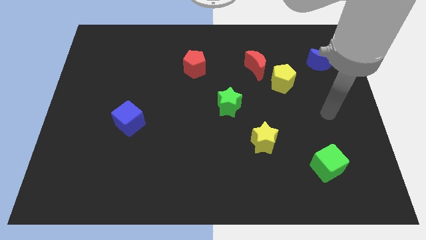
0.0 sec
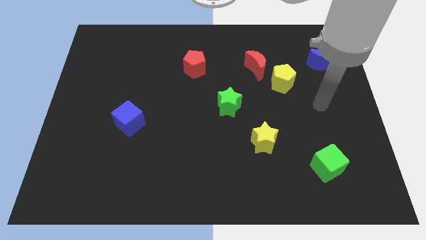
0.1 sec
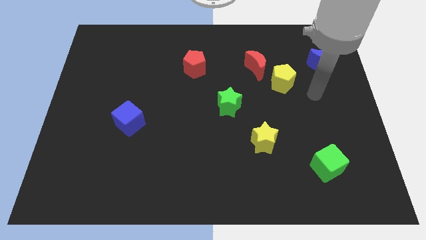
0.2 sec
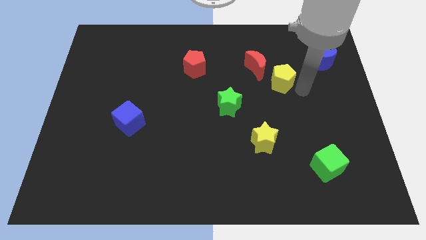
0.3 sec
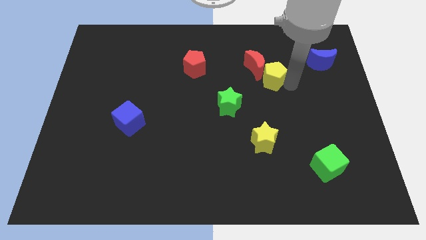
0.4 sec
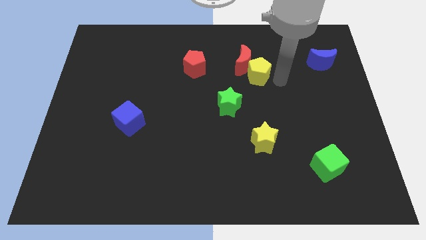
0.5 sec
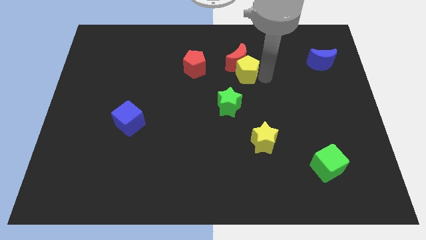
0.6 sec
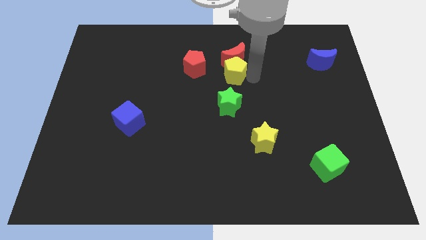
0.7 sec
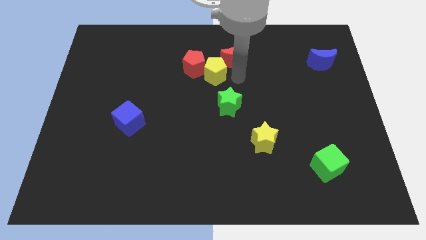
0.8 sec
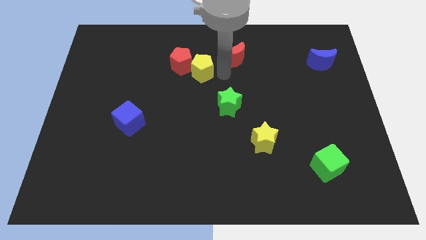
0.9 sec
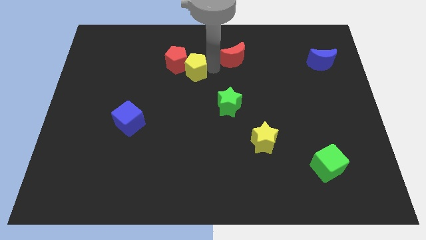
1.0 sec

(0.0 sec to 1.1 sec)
separate the red moon from the yellow pentagon

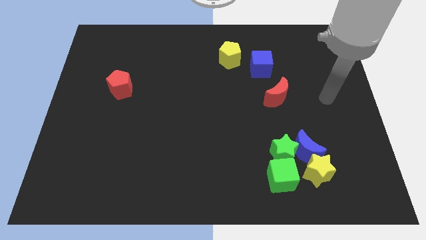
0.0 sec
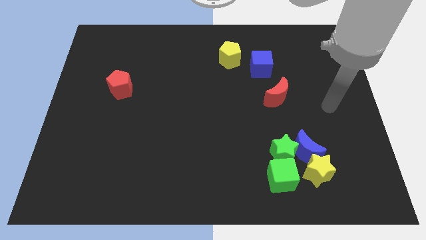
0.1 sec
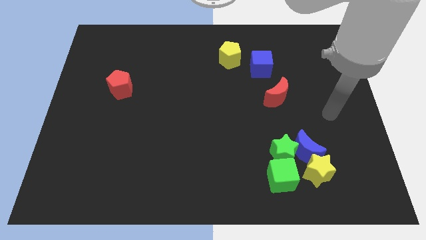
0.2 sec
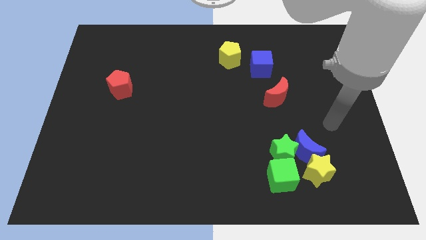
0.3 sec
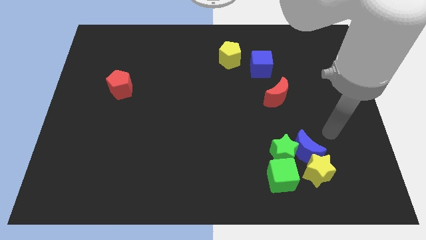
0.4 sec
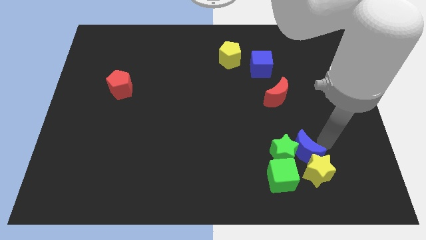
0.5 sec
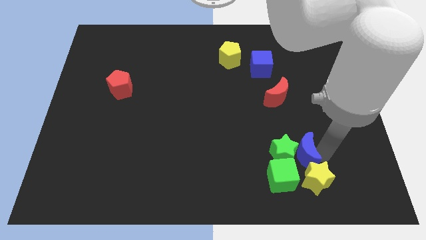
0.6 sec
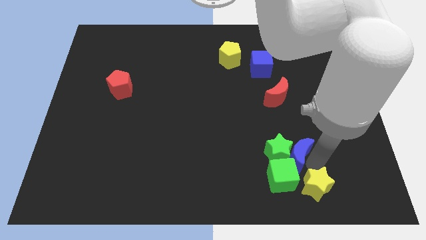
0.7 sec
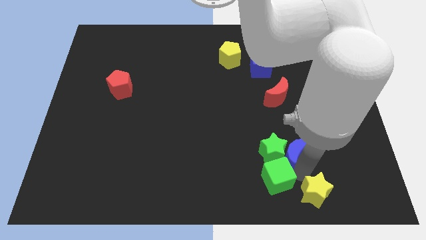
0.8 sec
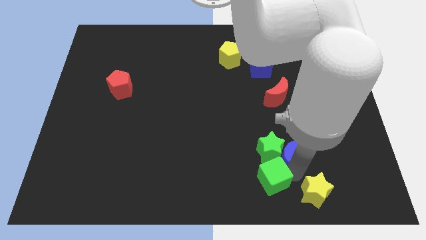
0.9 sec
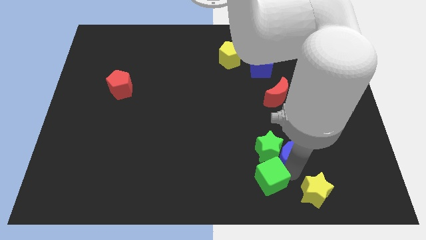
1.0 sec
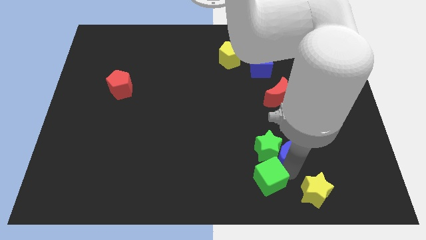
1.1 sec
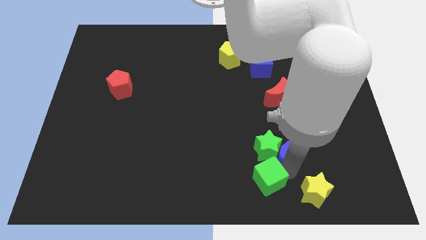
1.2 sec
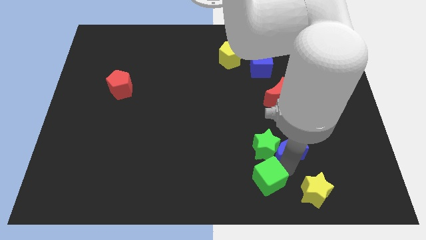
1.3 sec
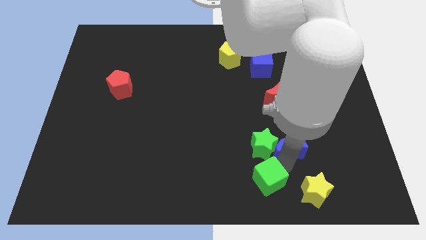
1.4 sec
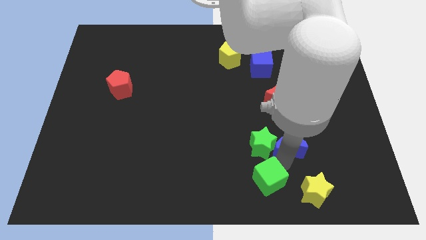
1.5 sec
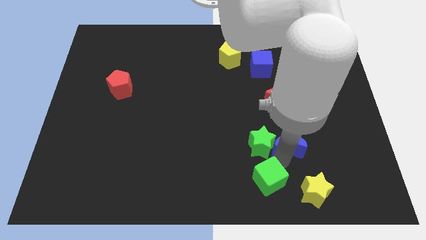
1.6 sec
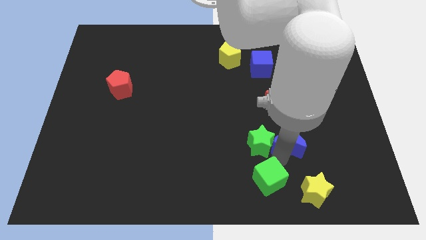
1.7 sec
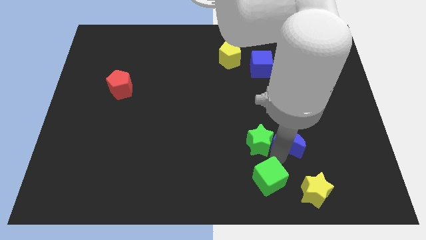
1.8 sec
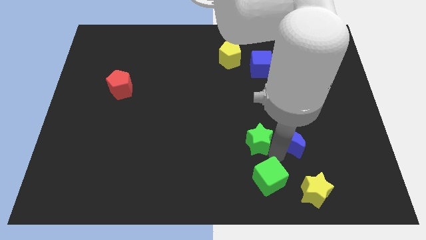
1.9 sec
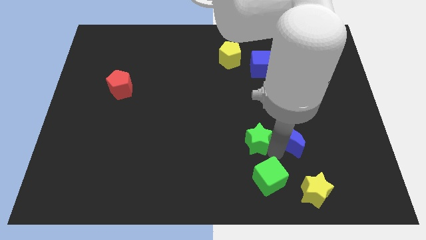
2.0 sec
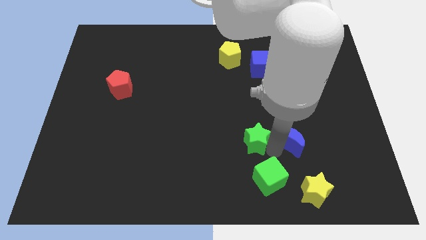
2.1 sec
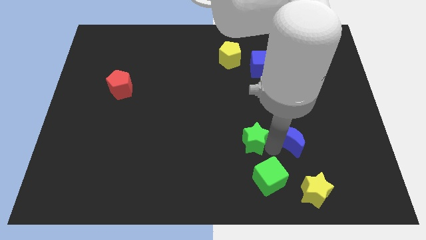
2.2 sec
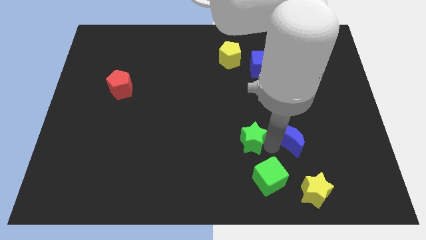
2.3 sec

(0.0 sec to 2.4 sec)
separate the green star from the clump

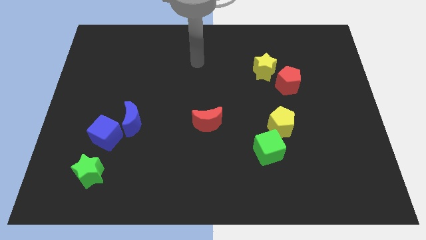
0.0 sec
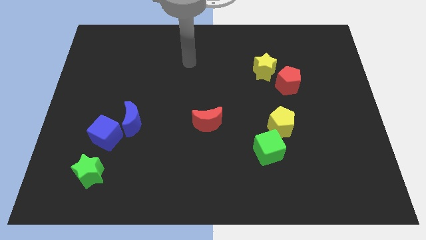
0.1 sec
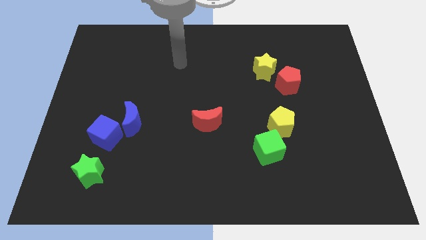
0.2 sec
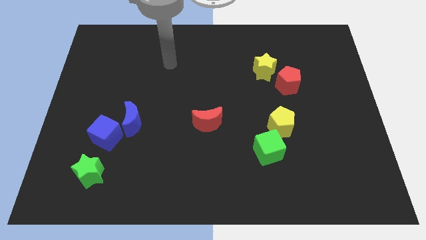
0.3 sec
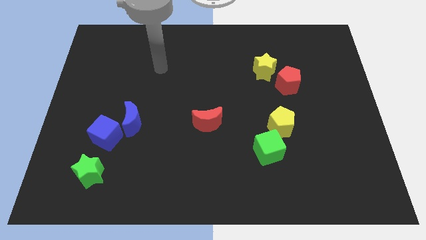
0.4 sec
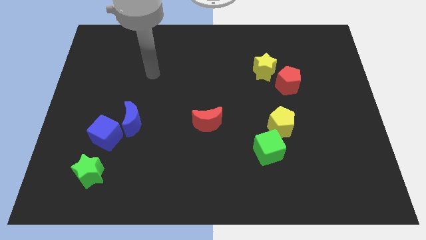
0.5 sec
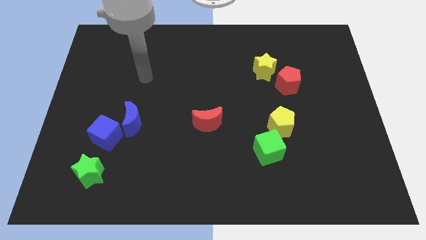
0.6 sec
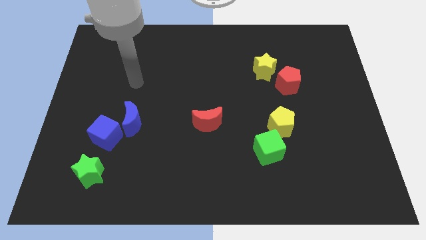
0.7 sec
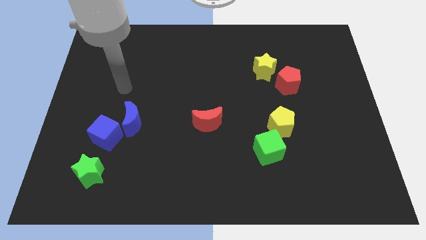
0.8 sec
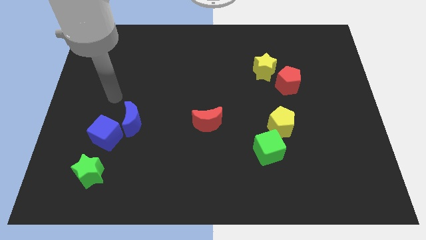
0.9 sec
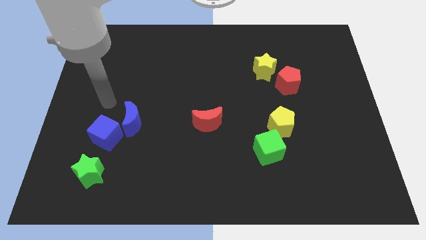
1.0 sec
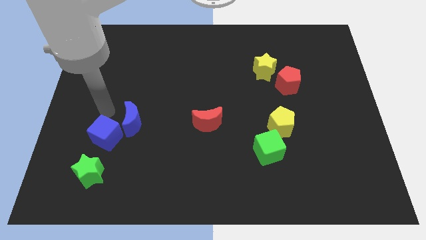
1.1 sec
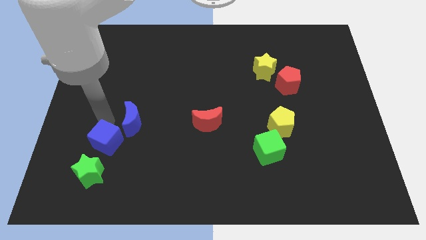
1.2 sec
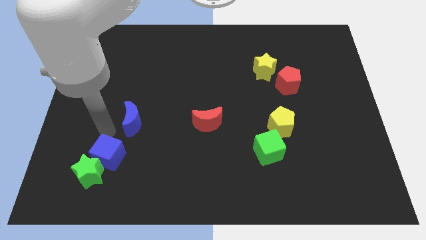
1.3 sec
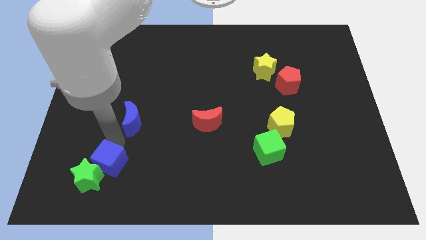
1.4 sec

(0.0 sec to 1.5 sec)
pull the blue moon apart from the blue cube

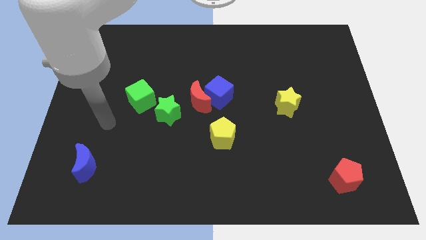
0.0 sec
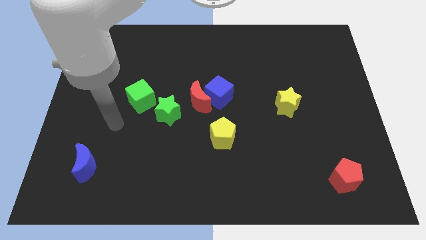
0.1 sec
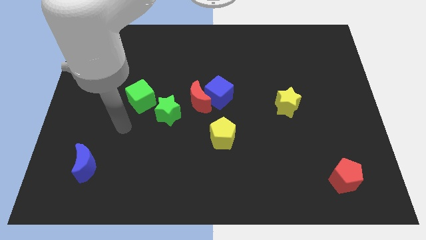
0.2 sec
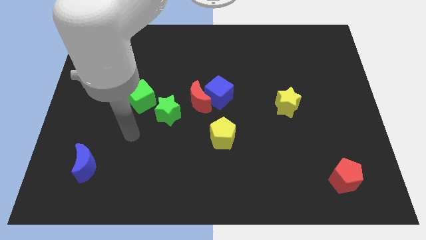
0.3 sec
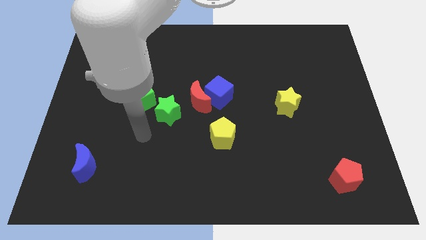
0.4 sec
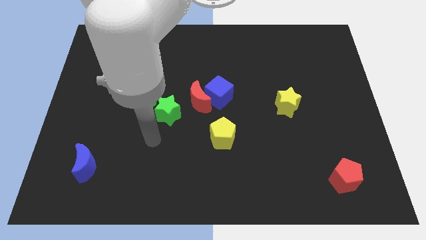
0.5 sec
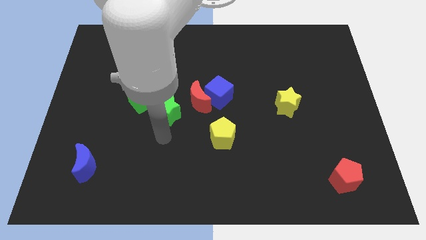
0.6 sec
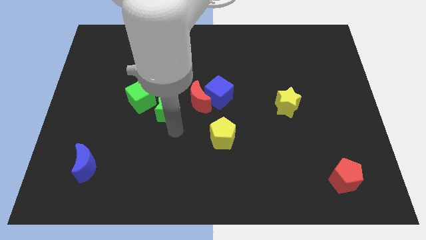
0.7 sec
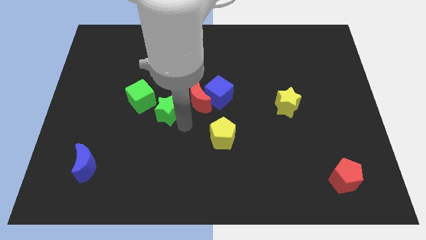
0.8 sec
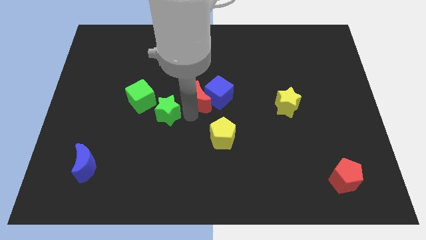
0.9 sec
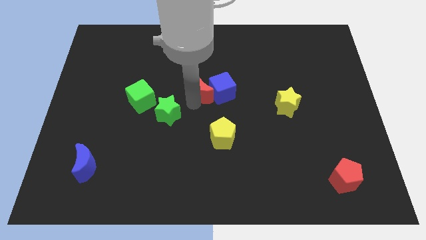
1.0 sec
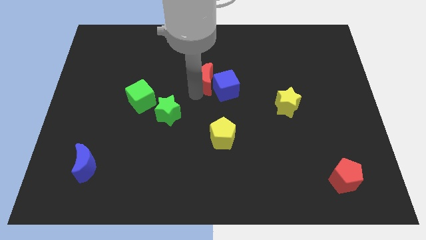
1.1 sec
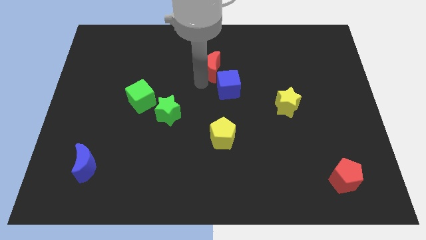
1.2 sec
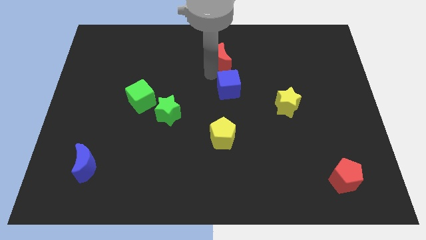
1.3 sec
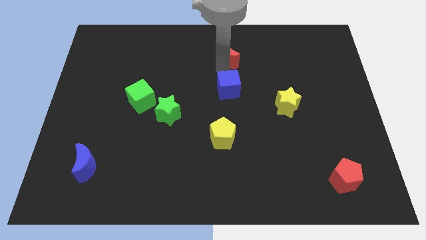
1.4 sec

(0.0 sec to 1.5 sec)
pull the blue cube apart from the red moon

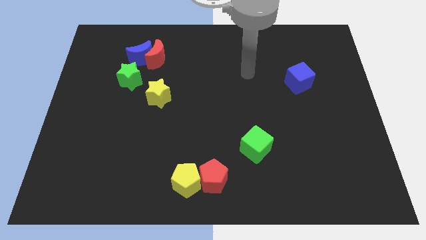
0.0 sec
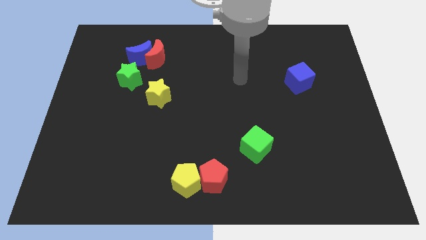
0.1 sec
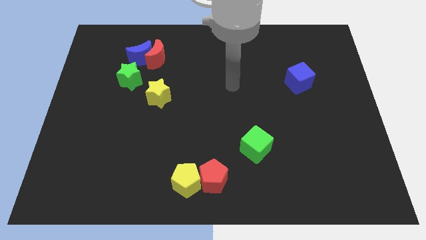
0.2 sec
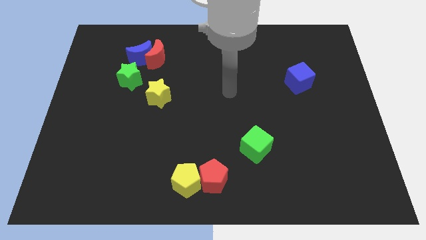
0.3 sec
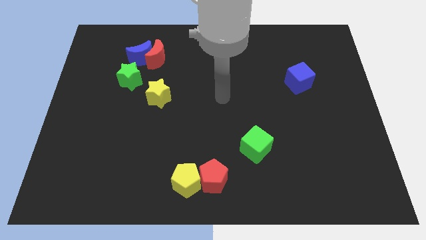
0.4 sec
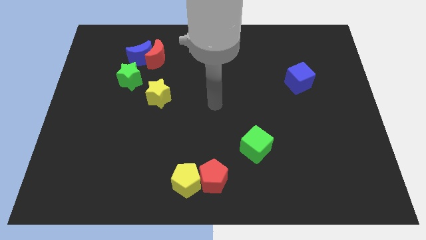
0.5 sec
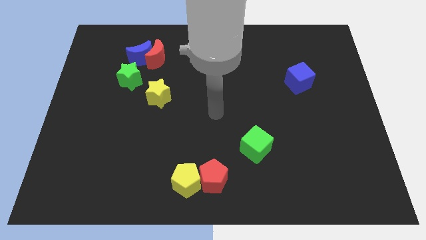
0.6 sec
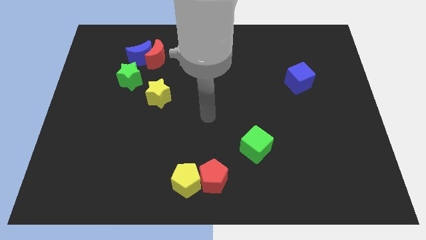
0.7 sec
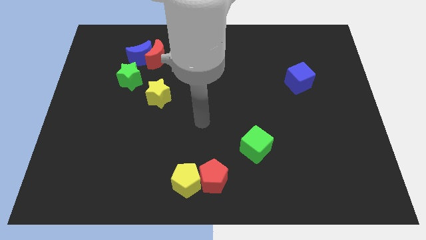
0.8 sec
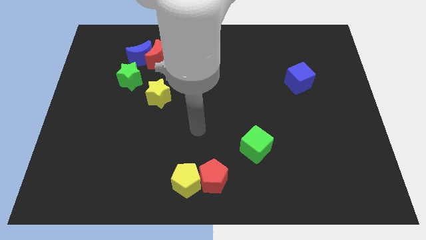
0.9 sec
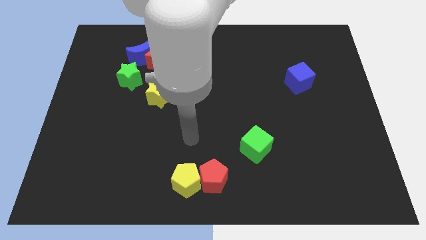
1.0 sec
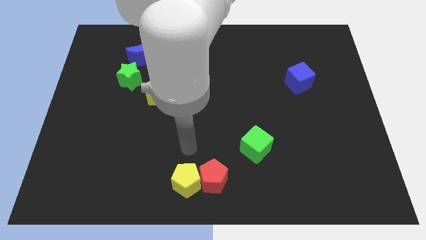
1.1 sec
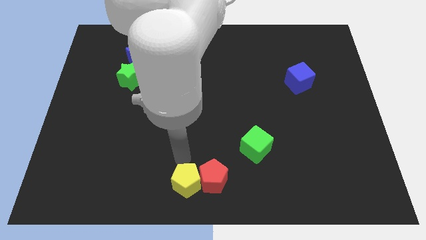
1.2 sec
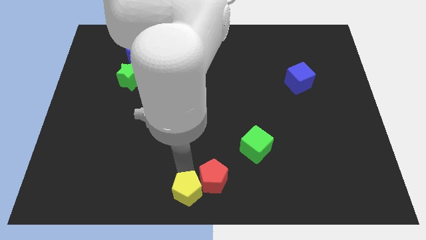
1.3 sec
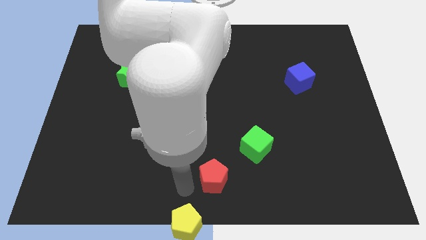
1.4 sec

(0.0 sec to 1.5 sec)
separate the red pentagon from the yellow pentagon

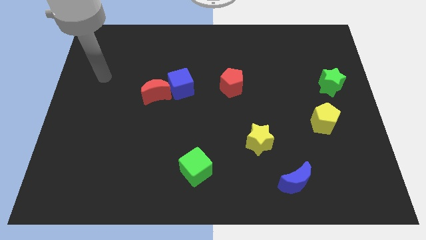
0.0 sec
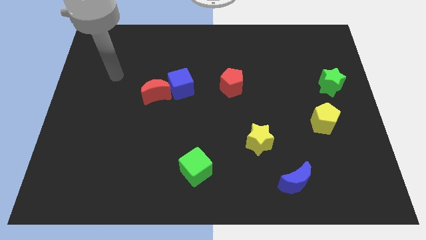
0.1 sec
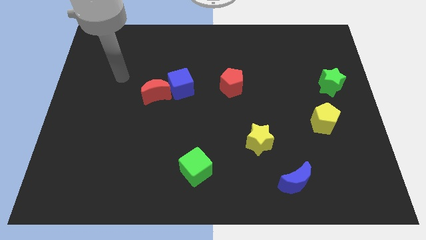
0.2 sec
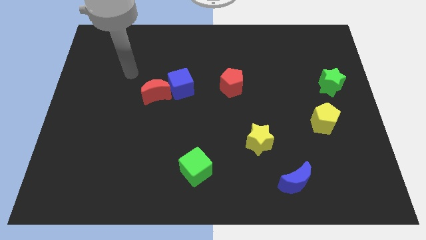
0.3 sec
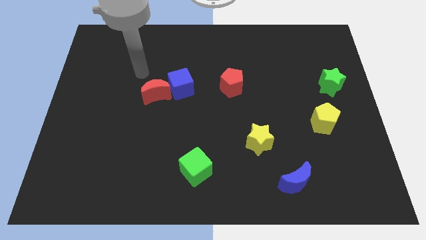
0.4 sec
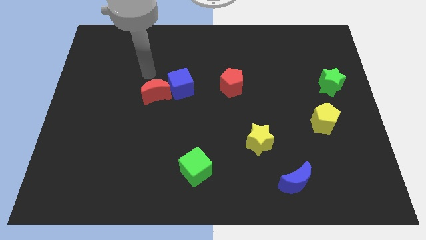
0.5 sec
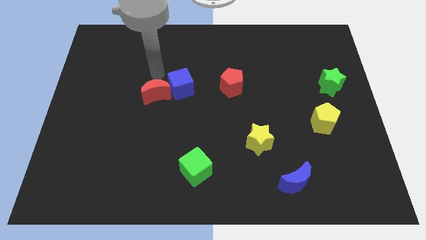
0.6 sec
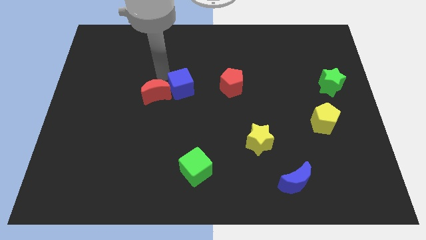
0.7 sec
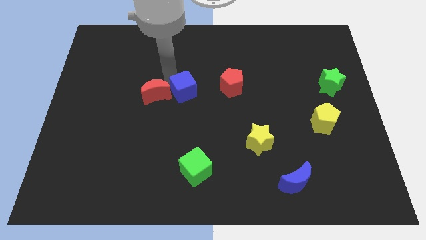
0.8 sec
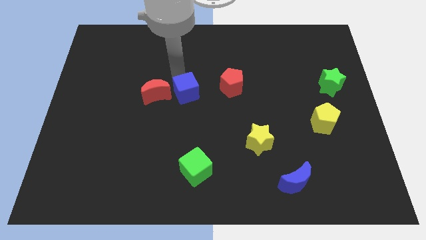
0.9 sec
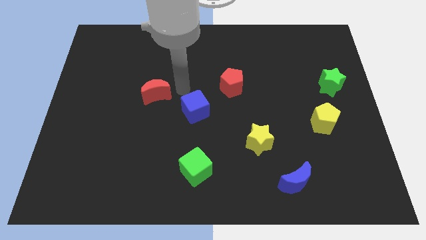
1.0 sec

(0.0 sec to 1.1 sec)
separate the red moon from the blue cube

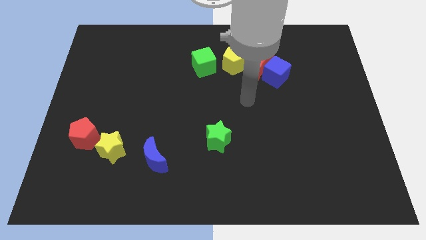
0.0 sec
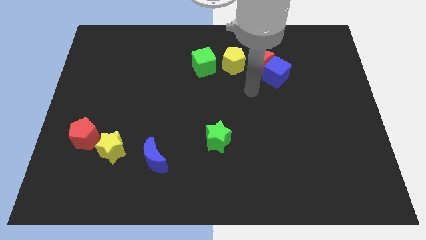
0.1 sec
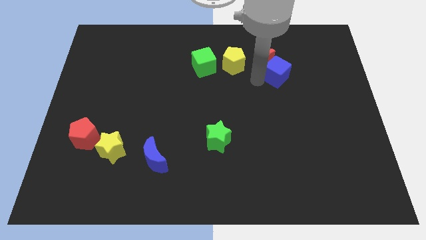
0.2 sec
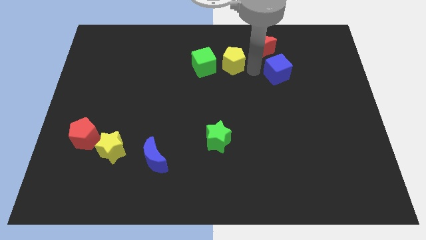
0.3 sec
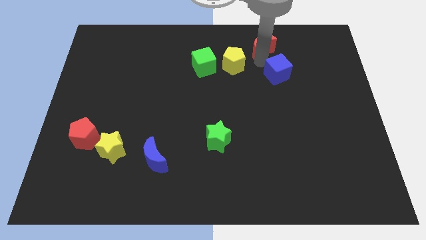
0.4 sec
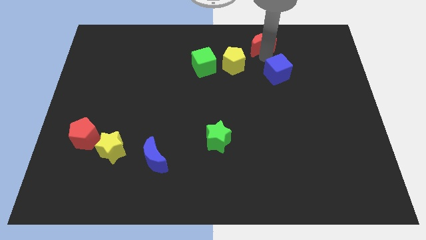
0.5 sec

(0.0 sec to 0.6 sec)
move the blue cube away from the red moon
